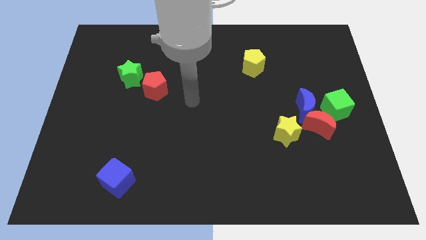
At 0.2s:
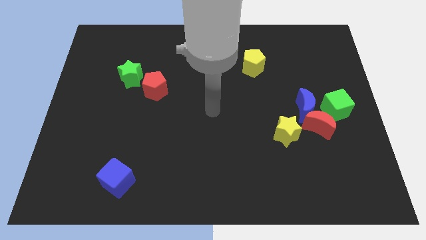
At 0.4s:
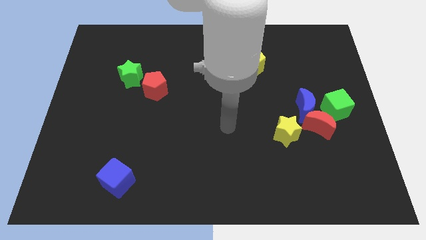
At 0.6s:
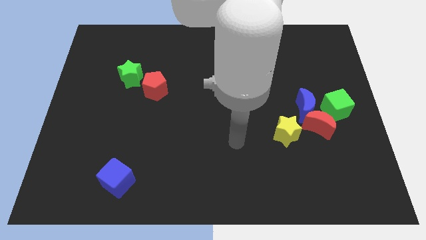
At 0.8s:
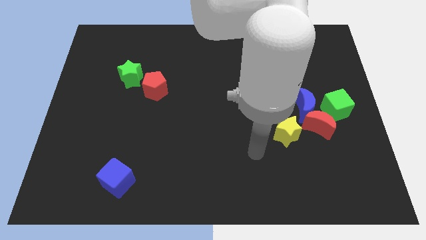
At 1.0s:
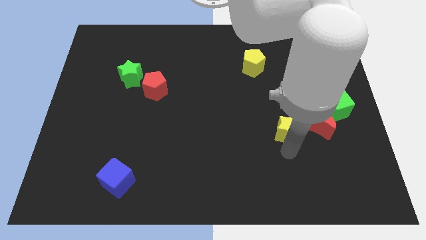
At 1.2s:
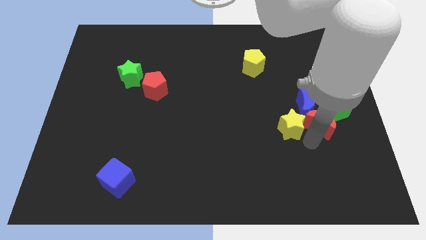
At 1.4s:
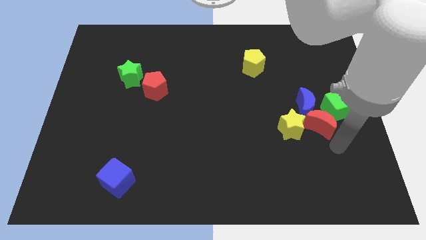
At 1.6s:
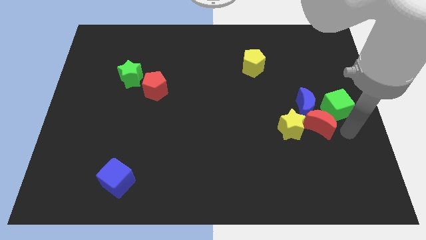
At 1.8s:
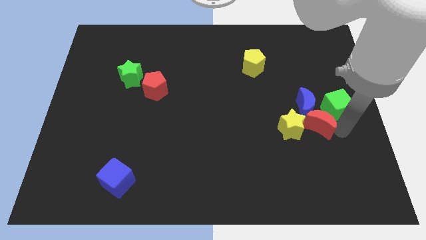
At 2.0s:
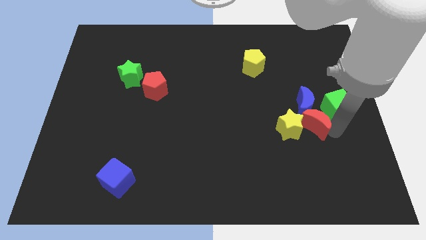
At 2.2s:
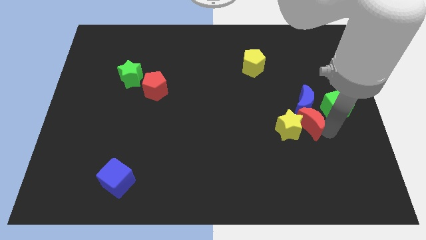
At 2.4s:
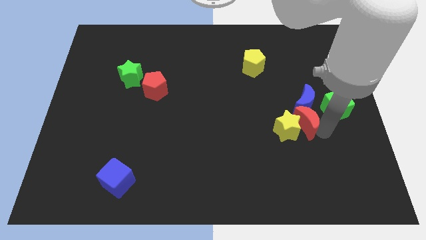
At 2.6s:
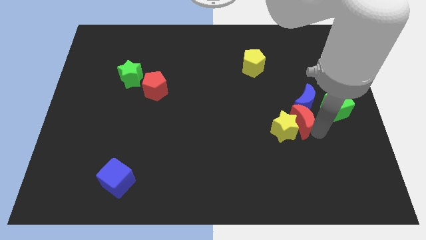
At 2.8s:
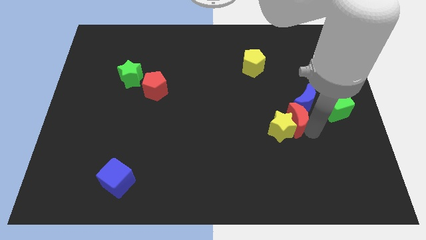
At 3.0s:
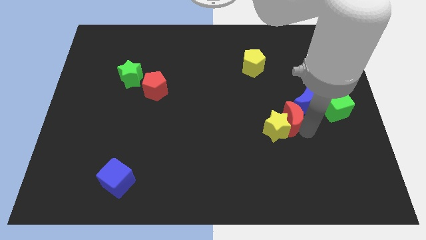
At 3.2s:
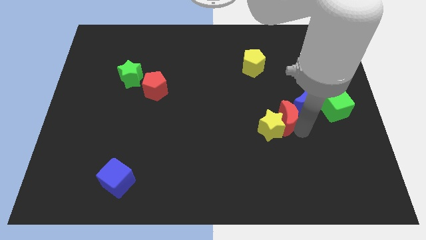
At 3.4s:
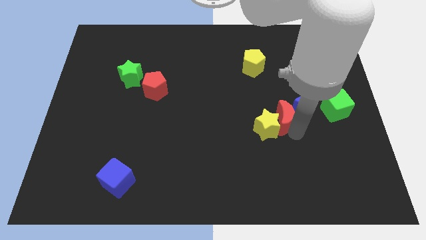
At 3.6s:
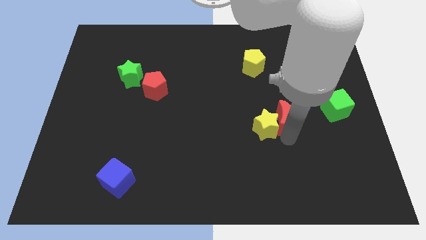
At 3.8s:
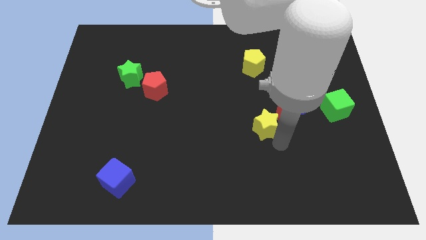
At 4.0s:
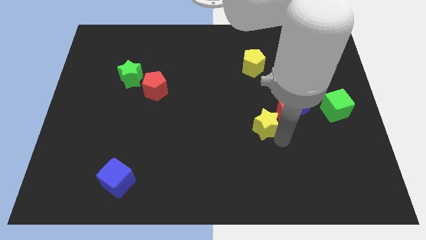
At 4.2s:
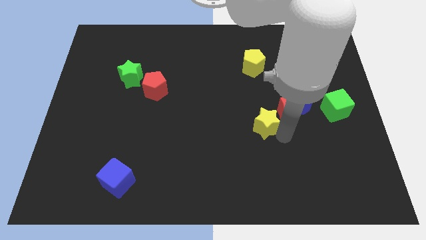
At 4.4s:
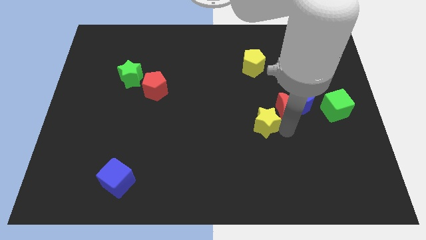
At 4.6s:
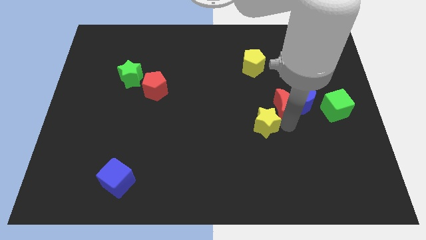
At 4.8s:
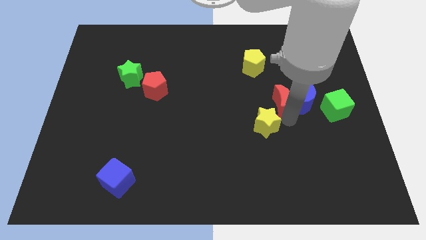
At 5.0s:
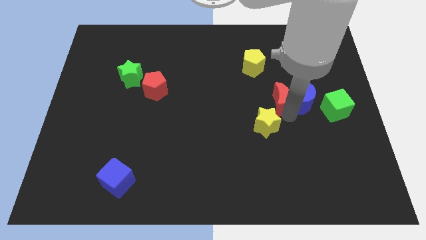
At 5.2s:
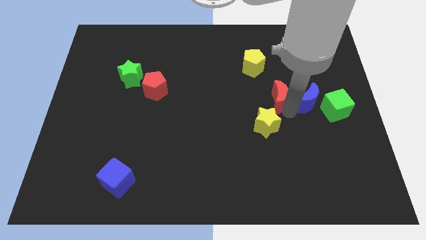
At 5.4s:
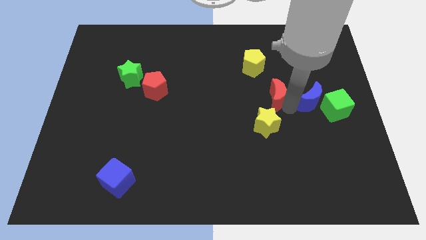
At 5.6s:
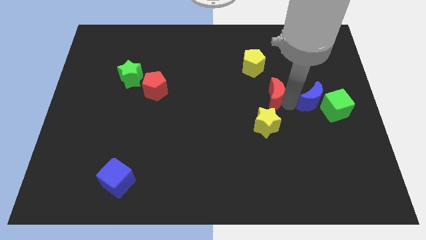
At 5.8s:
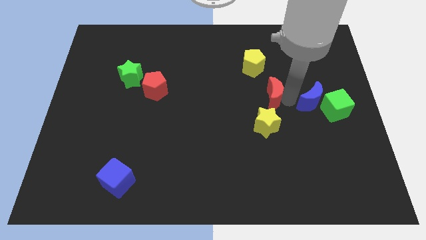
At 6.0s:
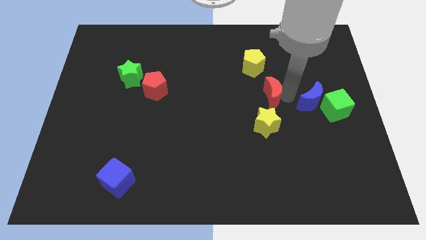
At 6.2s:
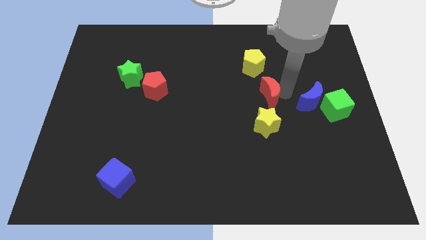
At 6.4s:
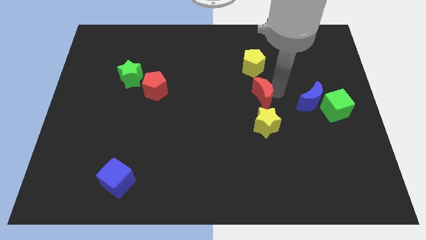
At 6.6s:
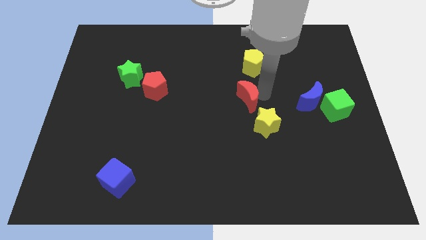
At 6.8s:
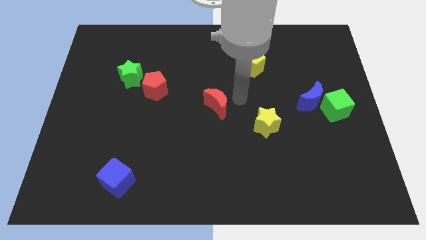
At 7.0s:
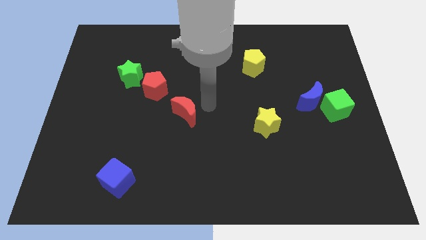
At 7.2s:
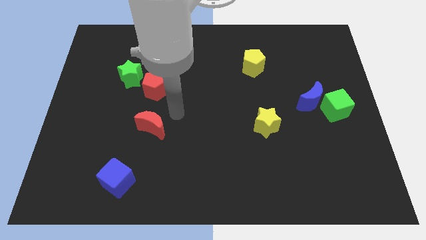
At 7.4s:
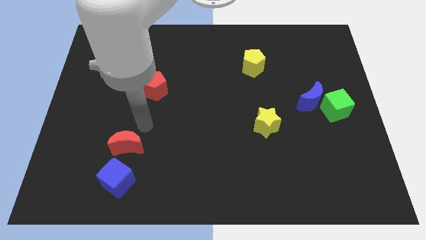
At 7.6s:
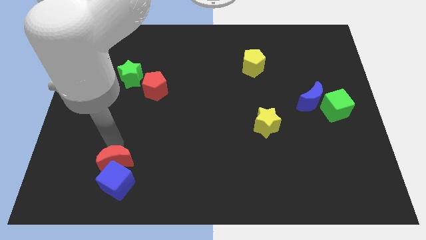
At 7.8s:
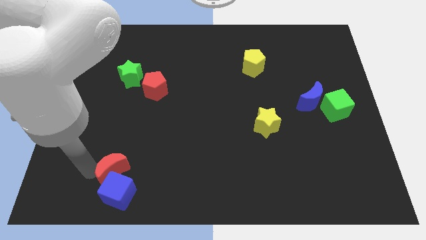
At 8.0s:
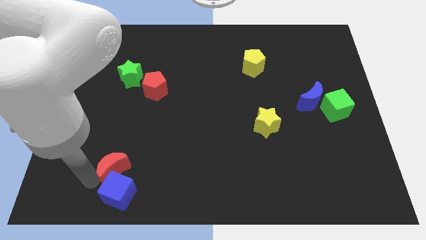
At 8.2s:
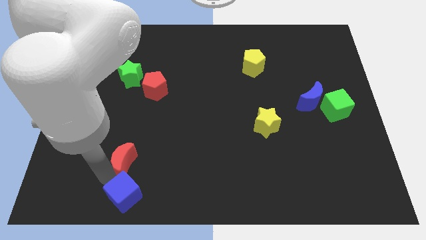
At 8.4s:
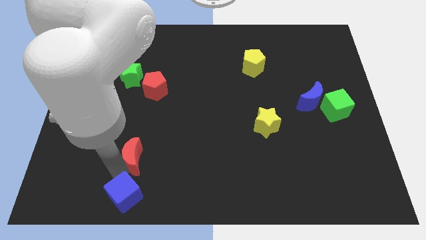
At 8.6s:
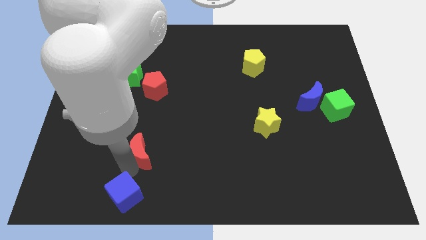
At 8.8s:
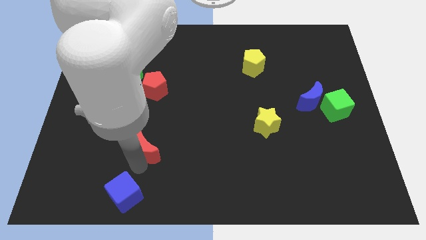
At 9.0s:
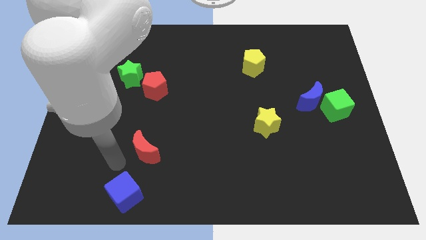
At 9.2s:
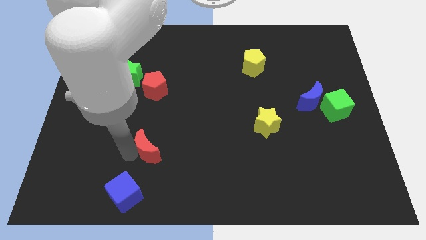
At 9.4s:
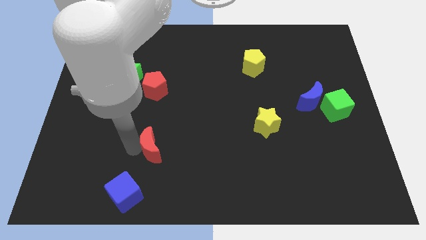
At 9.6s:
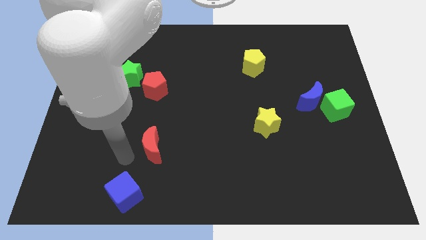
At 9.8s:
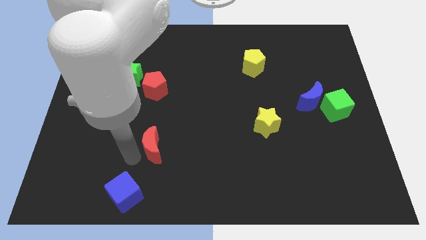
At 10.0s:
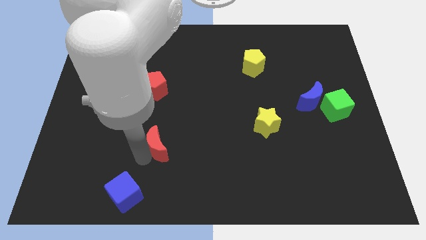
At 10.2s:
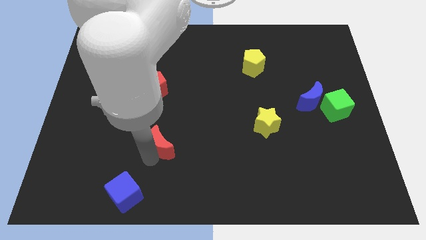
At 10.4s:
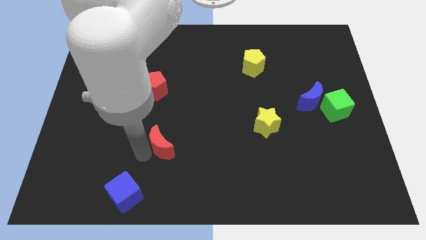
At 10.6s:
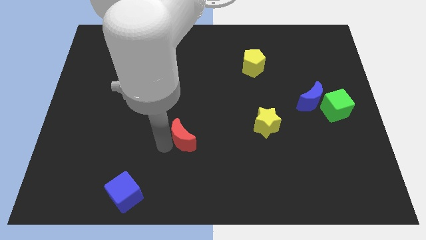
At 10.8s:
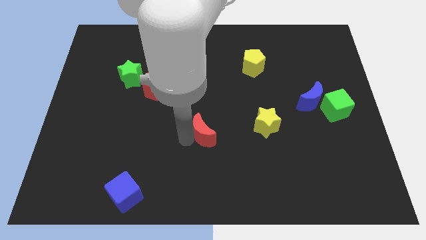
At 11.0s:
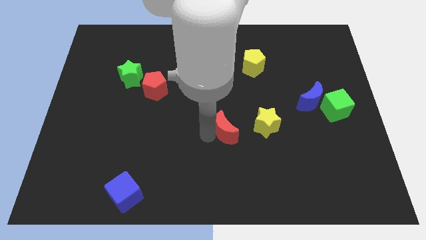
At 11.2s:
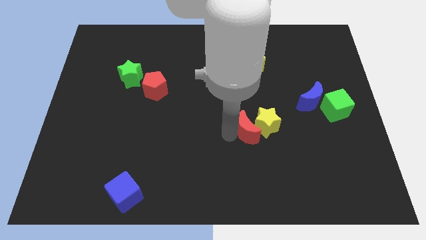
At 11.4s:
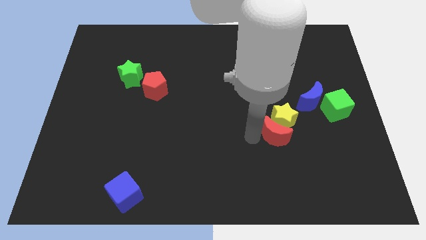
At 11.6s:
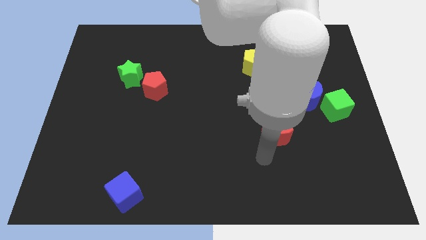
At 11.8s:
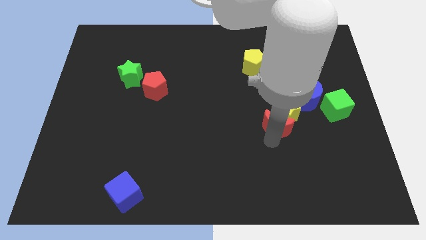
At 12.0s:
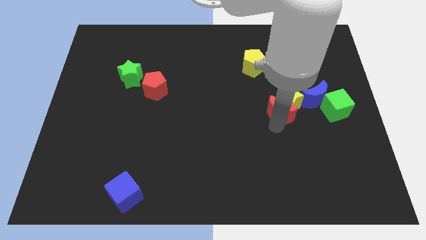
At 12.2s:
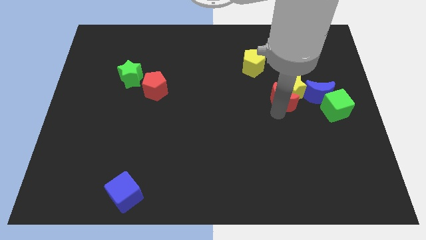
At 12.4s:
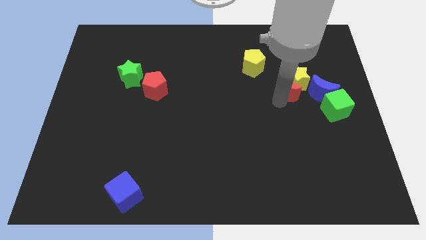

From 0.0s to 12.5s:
slide the red moon upwards a little bit

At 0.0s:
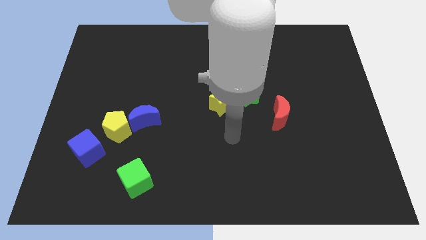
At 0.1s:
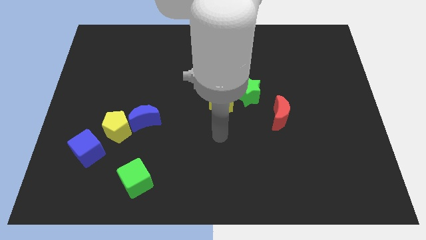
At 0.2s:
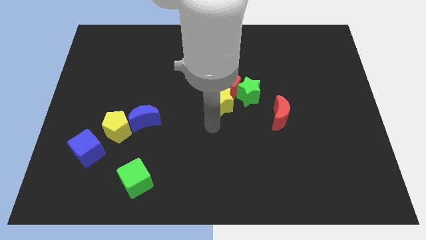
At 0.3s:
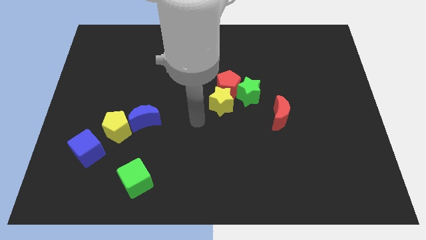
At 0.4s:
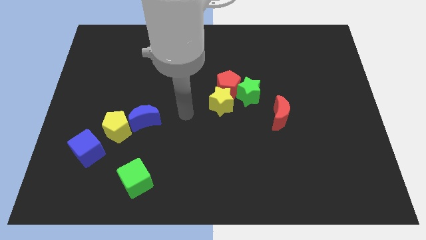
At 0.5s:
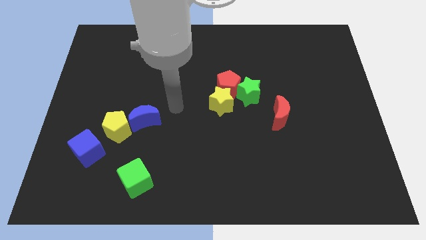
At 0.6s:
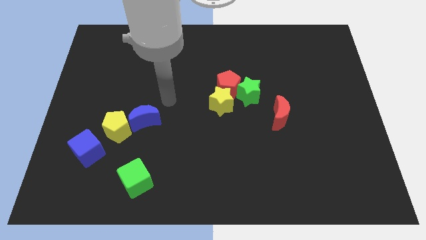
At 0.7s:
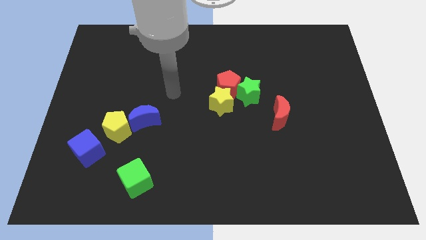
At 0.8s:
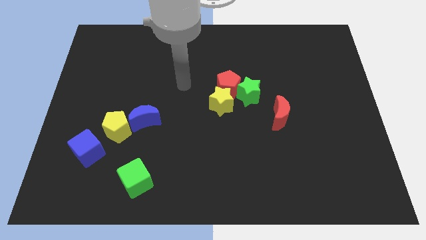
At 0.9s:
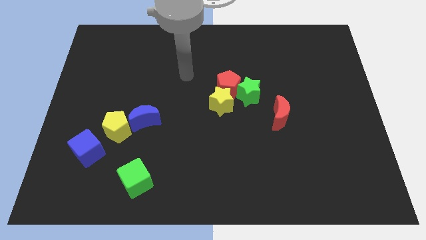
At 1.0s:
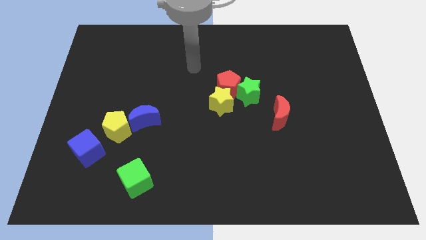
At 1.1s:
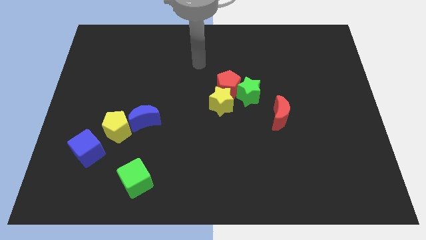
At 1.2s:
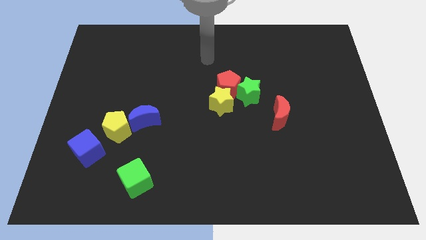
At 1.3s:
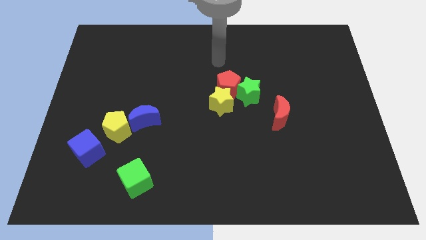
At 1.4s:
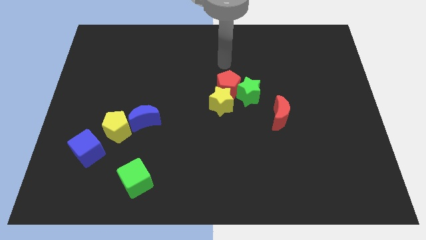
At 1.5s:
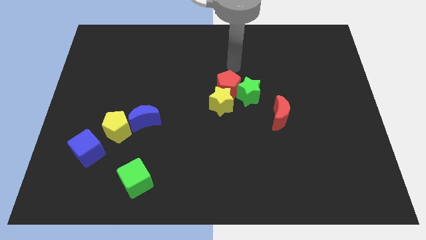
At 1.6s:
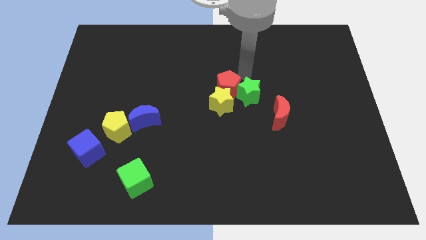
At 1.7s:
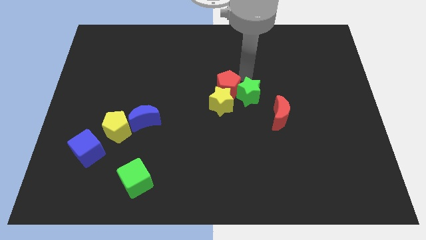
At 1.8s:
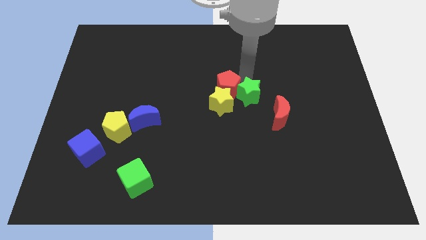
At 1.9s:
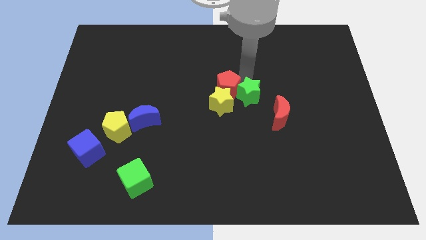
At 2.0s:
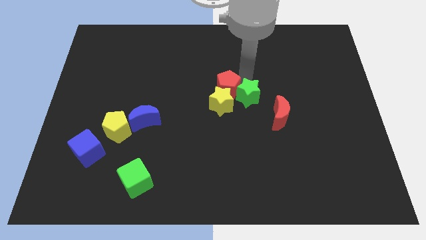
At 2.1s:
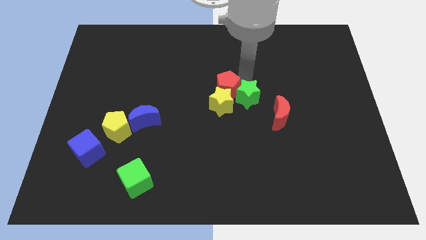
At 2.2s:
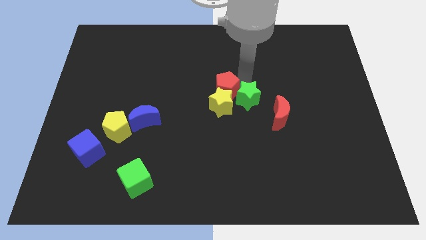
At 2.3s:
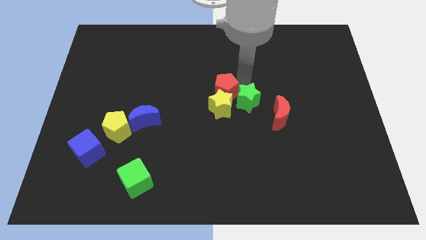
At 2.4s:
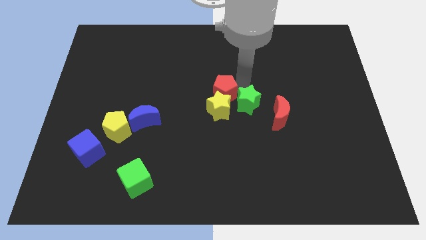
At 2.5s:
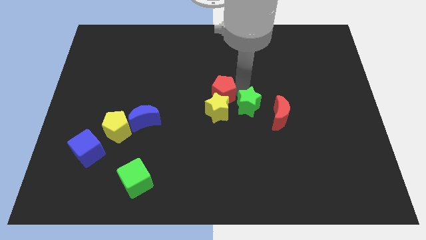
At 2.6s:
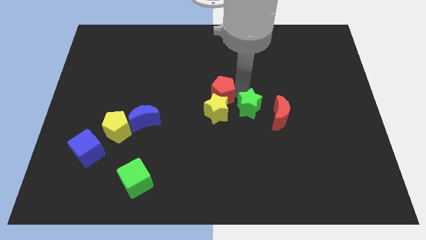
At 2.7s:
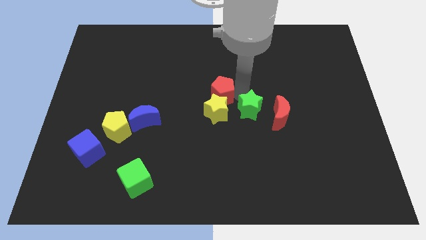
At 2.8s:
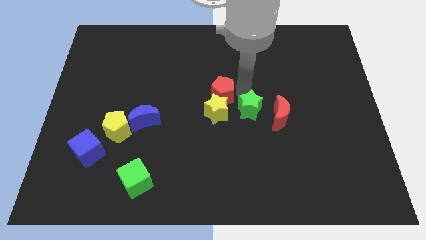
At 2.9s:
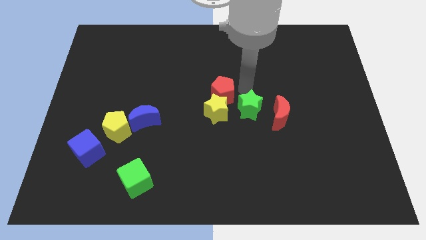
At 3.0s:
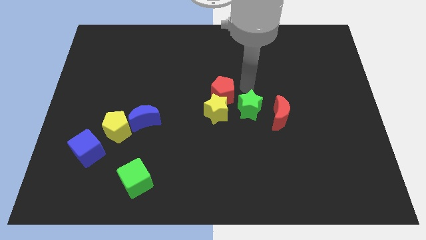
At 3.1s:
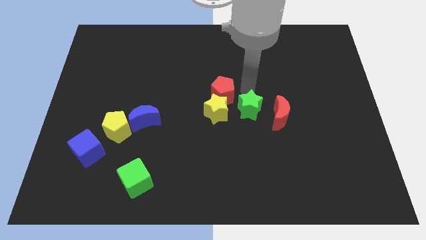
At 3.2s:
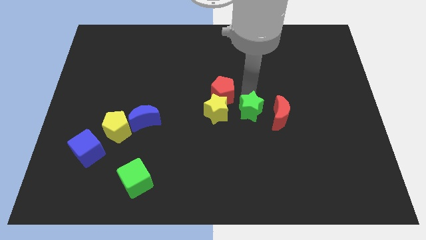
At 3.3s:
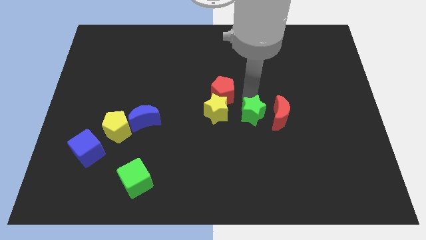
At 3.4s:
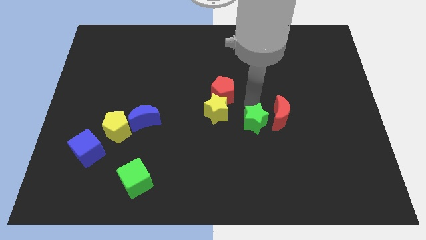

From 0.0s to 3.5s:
push the green star somewhat down
